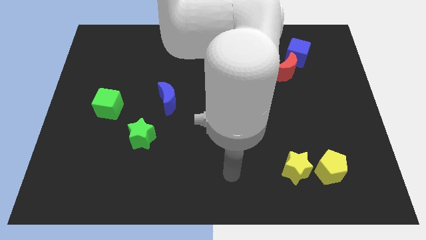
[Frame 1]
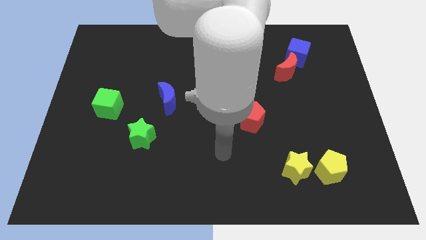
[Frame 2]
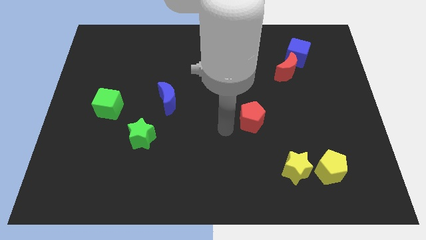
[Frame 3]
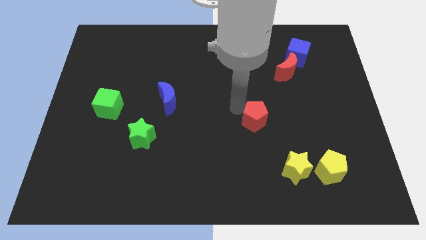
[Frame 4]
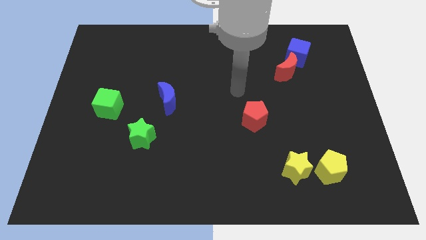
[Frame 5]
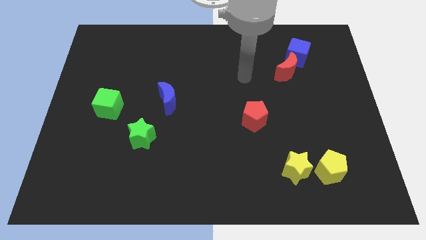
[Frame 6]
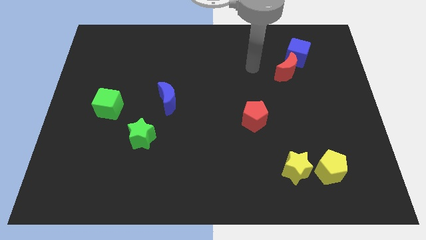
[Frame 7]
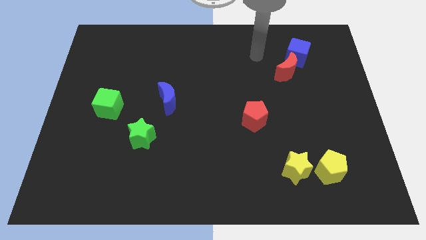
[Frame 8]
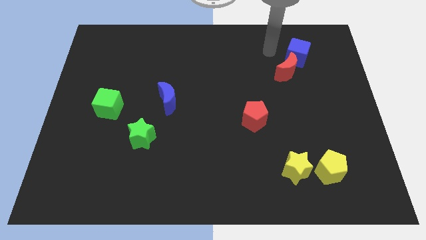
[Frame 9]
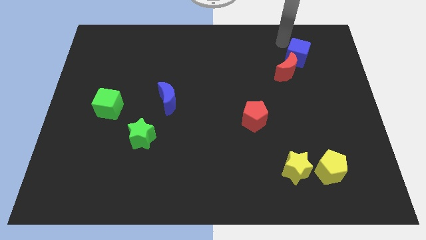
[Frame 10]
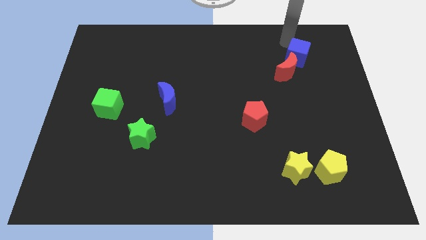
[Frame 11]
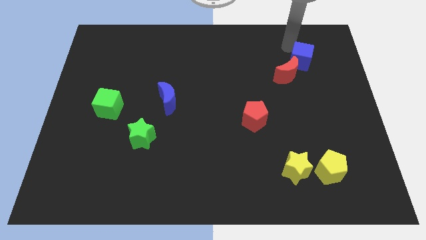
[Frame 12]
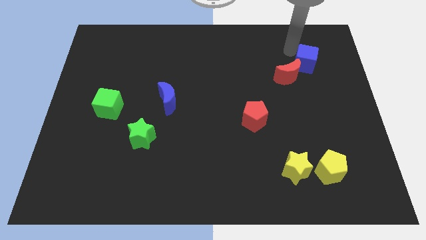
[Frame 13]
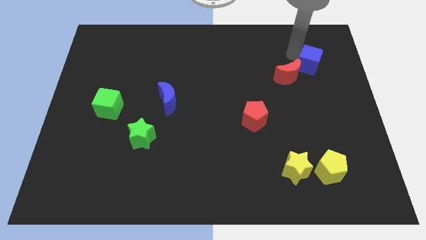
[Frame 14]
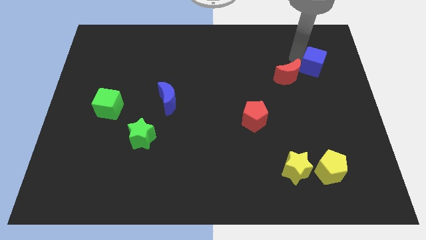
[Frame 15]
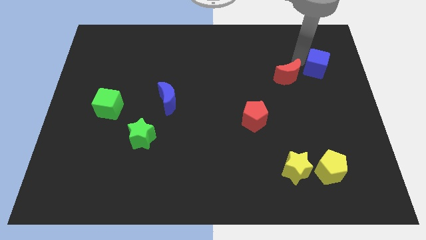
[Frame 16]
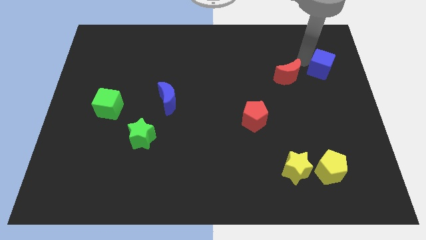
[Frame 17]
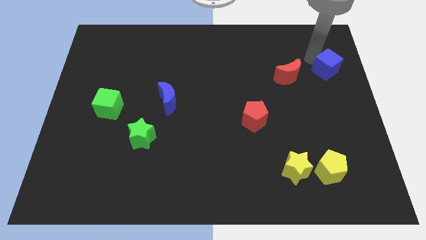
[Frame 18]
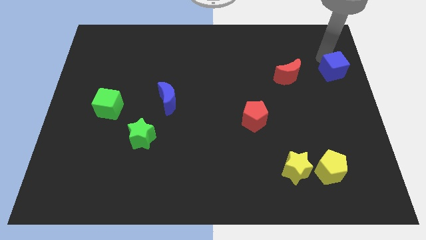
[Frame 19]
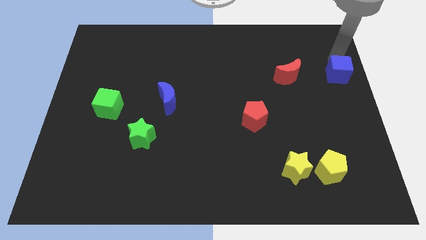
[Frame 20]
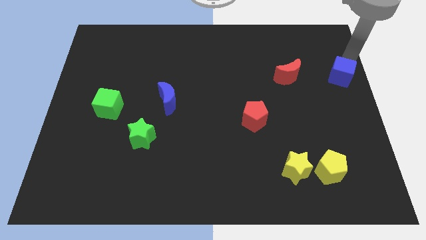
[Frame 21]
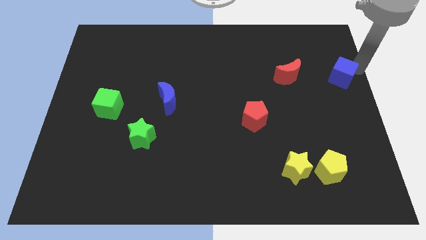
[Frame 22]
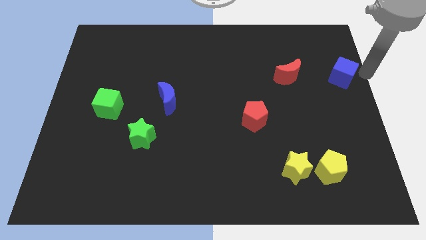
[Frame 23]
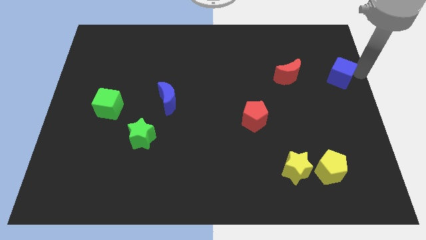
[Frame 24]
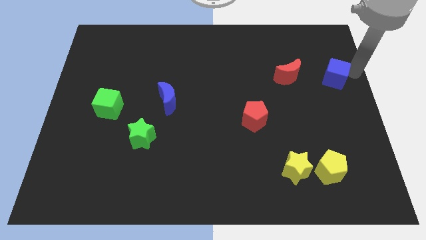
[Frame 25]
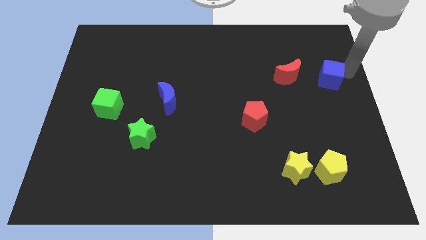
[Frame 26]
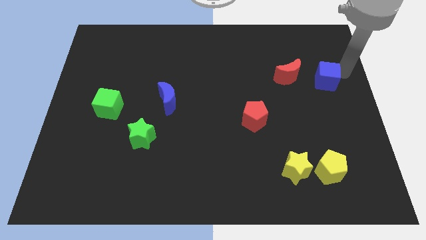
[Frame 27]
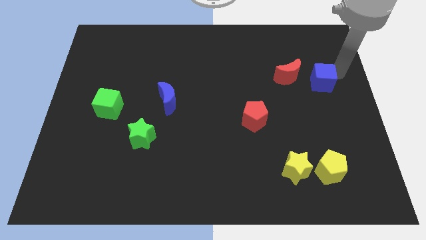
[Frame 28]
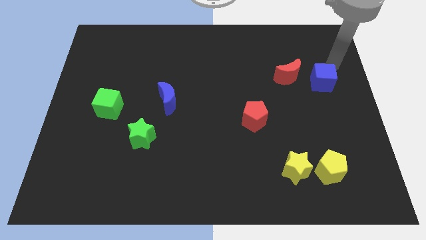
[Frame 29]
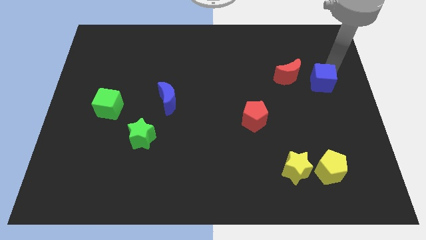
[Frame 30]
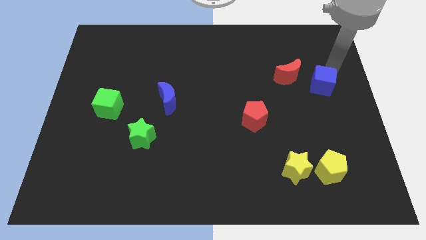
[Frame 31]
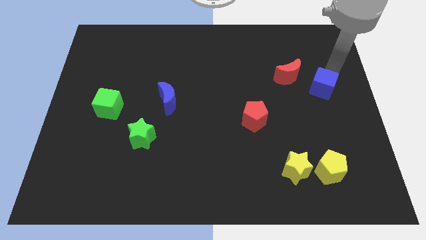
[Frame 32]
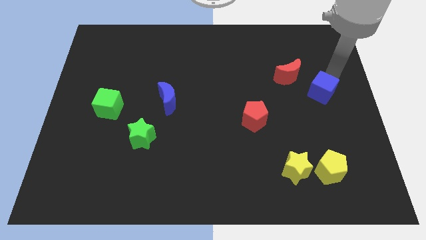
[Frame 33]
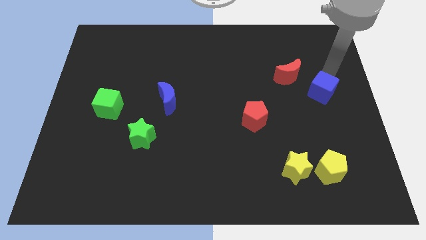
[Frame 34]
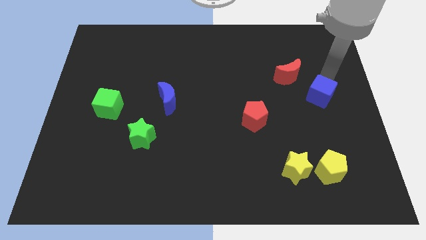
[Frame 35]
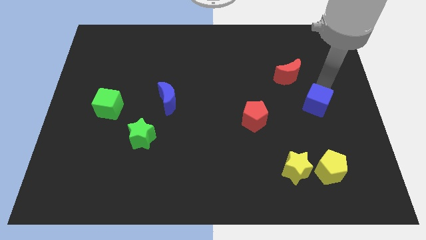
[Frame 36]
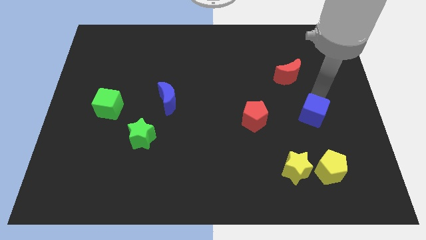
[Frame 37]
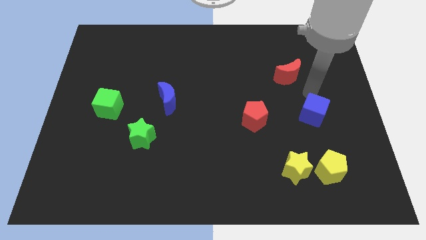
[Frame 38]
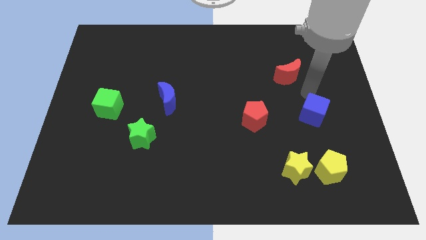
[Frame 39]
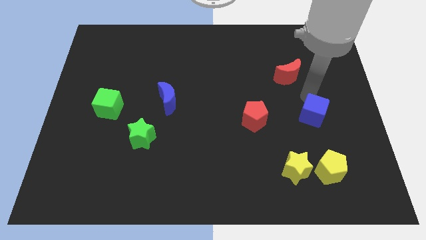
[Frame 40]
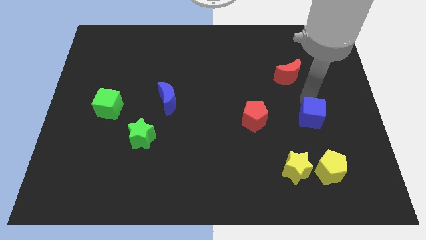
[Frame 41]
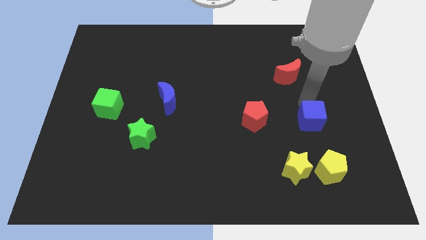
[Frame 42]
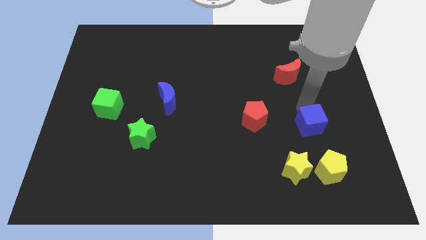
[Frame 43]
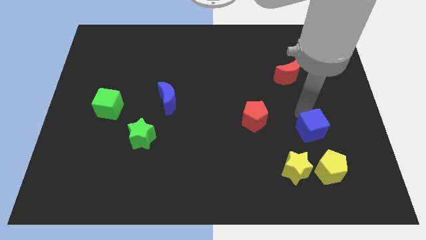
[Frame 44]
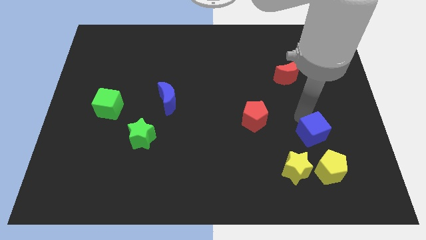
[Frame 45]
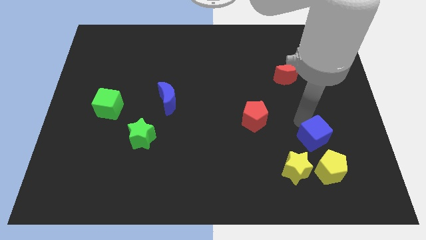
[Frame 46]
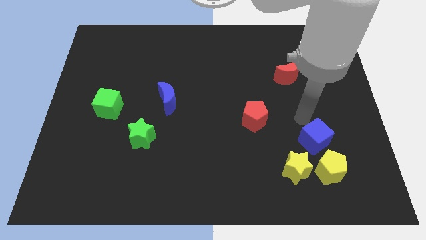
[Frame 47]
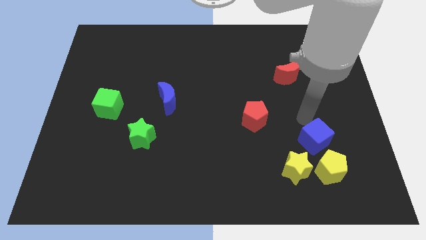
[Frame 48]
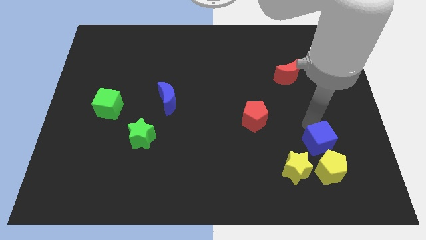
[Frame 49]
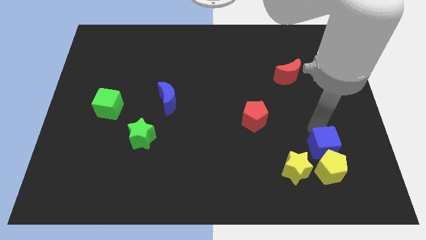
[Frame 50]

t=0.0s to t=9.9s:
slide the blue cube close to the yellow pentagon

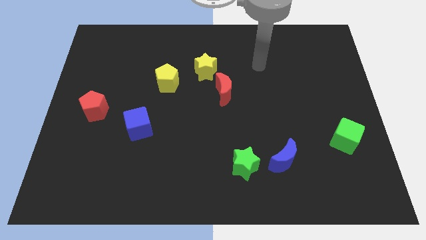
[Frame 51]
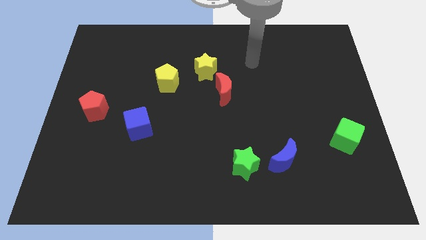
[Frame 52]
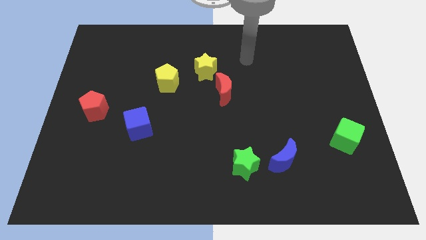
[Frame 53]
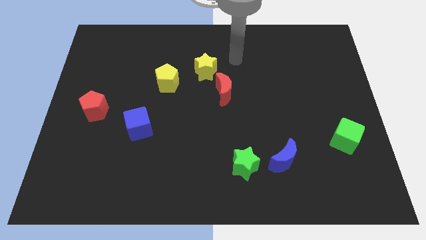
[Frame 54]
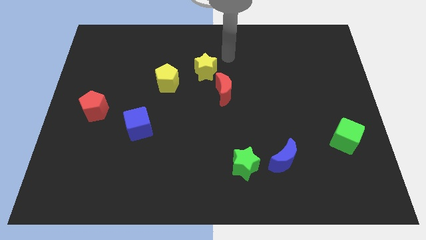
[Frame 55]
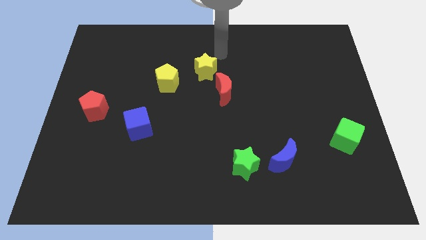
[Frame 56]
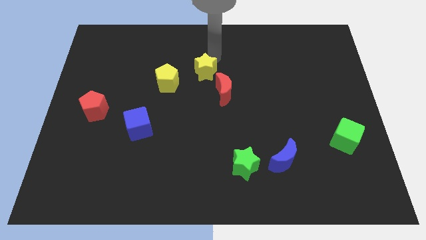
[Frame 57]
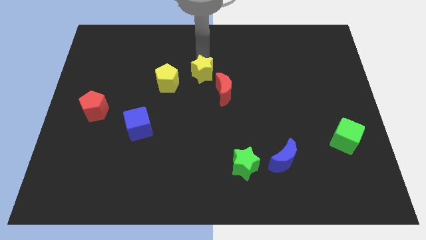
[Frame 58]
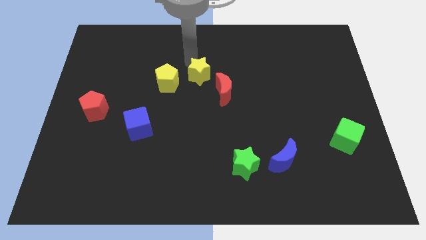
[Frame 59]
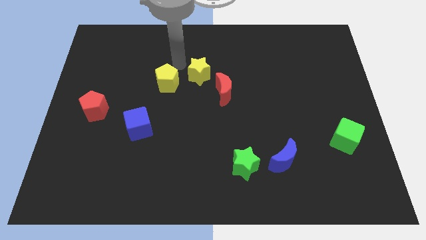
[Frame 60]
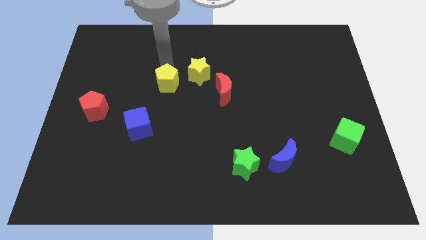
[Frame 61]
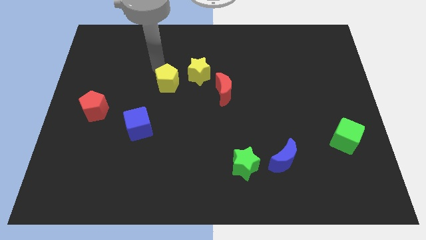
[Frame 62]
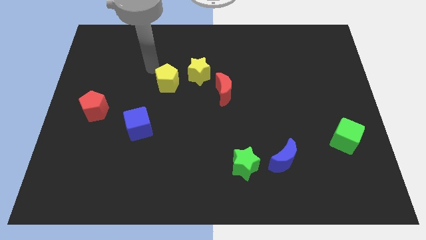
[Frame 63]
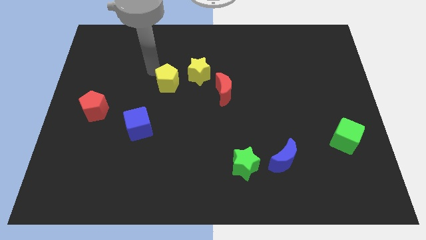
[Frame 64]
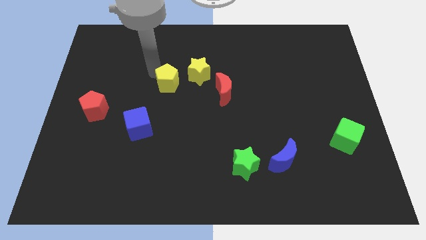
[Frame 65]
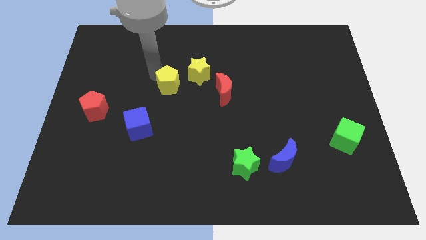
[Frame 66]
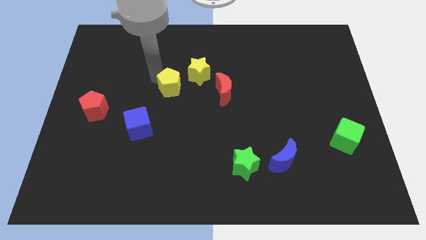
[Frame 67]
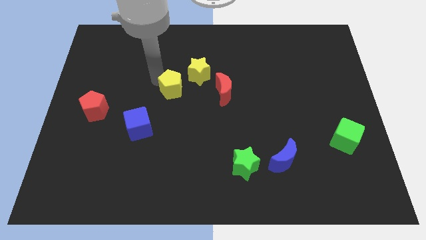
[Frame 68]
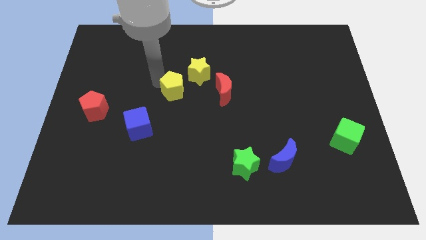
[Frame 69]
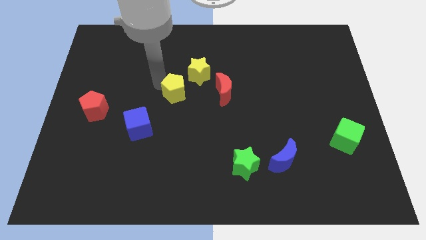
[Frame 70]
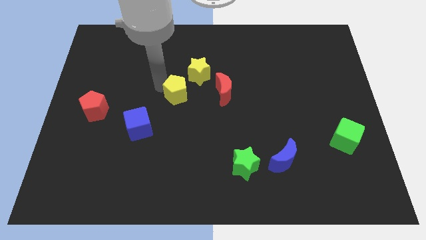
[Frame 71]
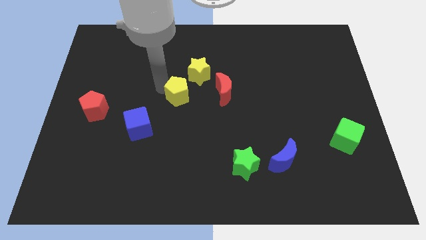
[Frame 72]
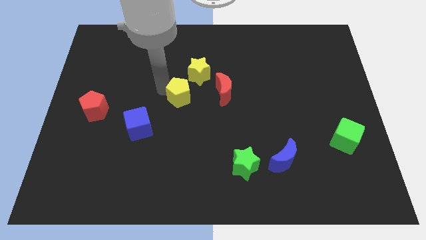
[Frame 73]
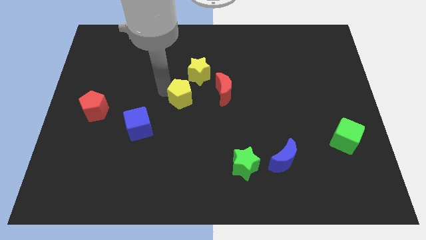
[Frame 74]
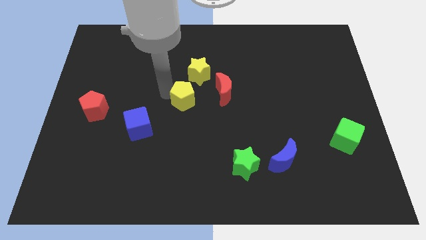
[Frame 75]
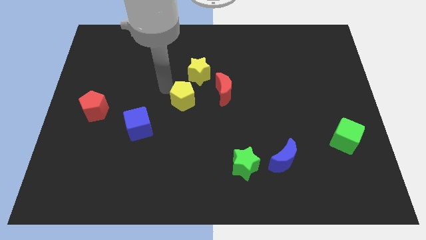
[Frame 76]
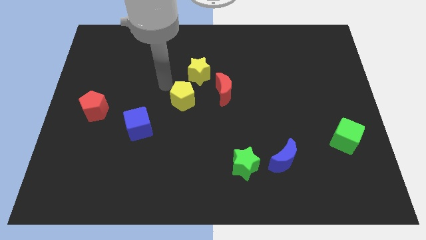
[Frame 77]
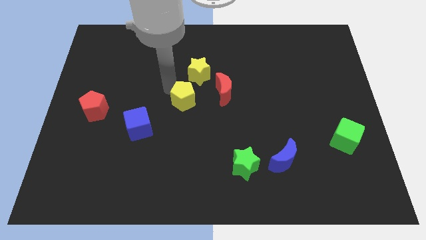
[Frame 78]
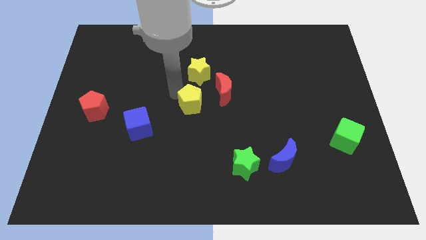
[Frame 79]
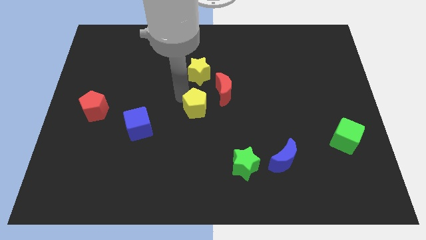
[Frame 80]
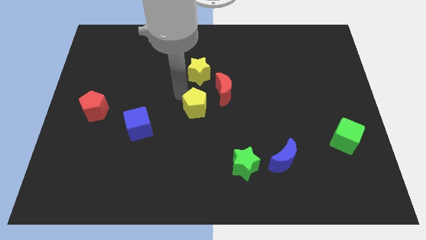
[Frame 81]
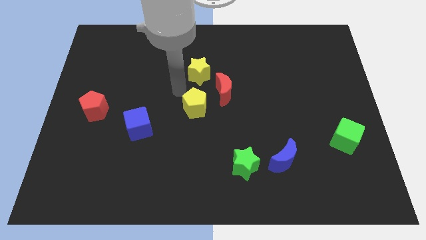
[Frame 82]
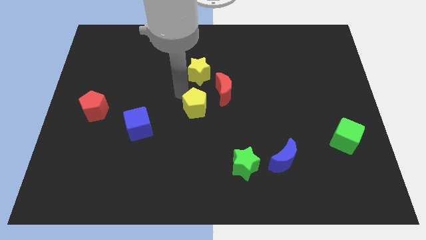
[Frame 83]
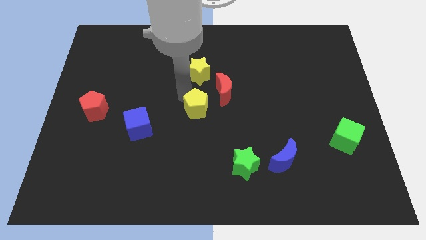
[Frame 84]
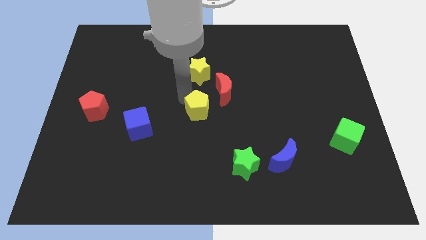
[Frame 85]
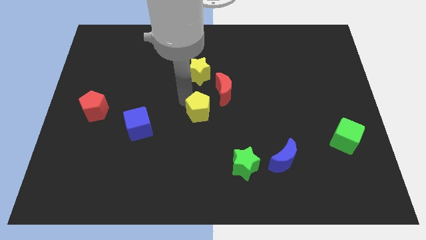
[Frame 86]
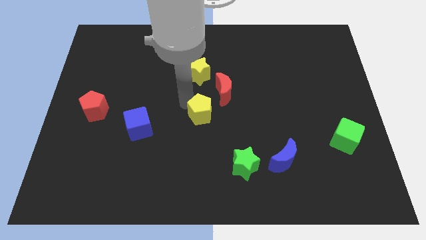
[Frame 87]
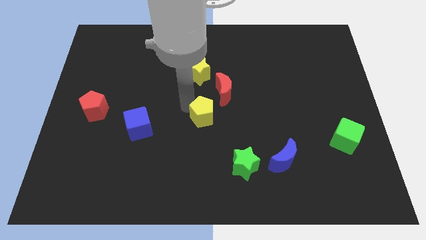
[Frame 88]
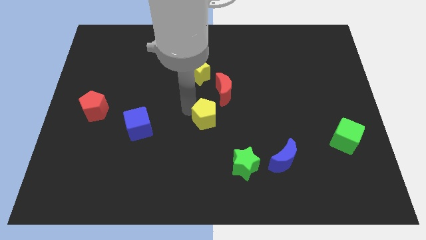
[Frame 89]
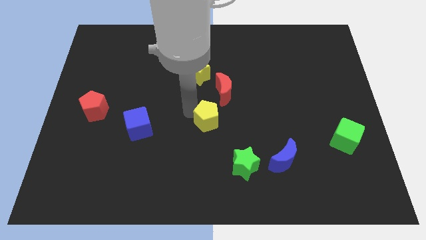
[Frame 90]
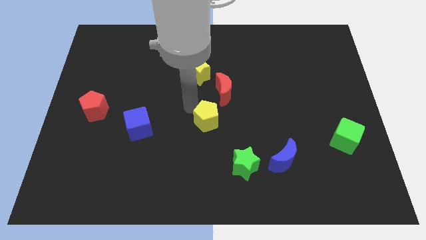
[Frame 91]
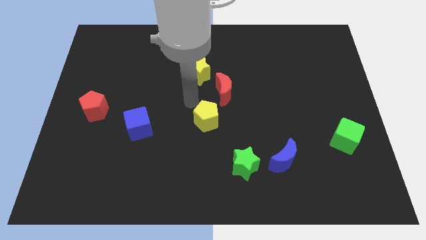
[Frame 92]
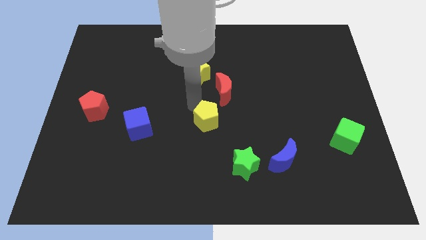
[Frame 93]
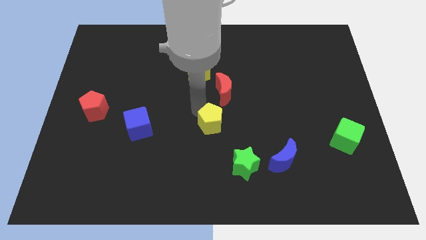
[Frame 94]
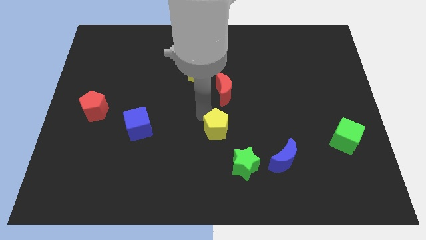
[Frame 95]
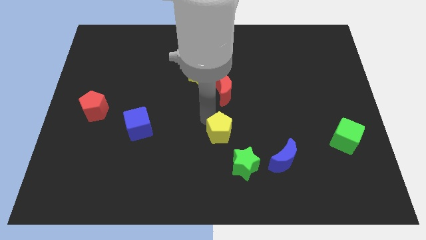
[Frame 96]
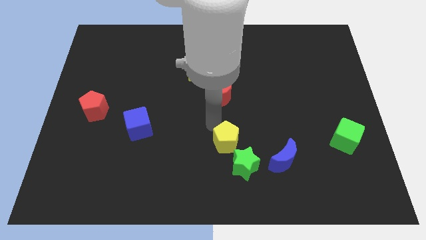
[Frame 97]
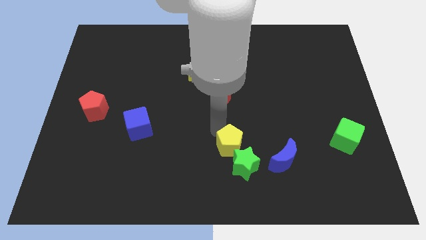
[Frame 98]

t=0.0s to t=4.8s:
slide the yellow pentagon next to the green star
